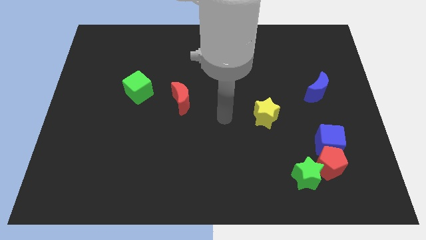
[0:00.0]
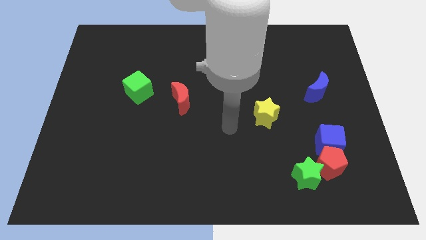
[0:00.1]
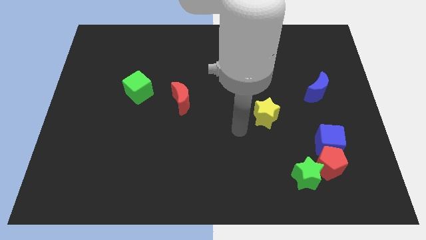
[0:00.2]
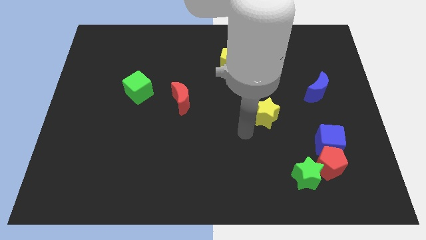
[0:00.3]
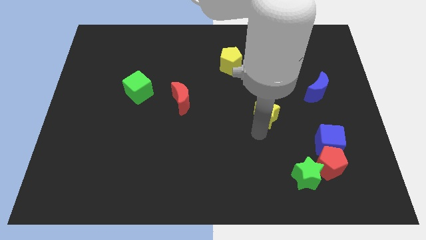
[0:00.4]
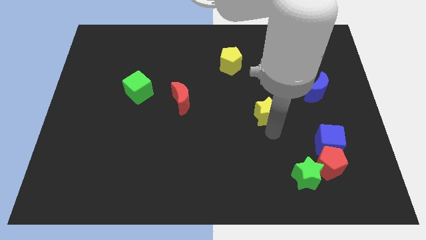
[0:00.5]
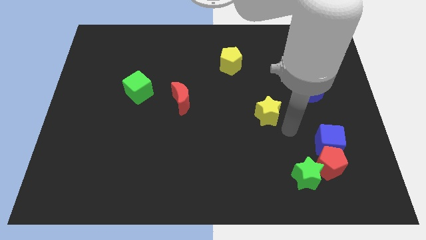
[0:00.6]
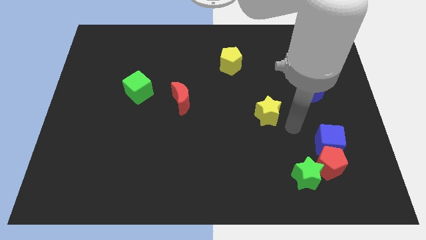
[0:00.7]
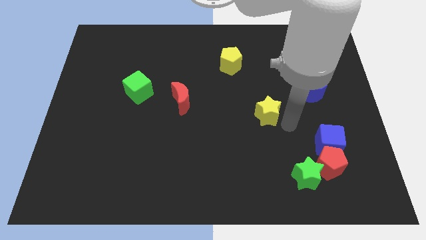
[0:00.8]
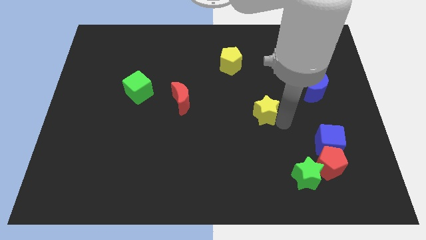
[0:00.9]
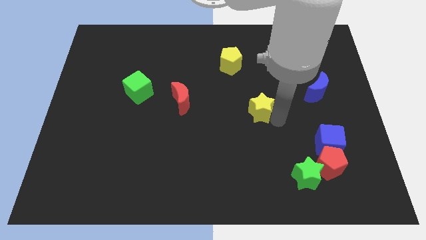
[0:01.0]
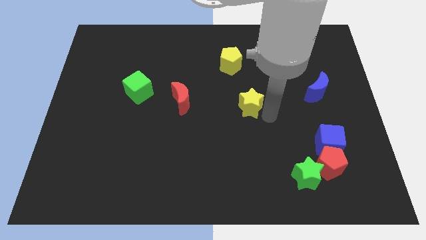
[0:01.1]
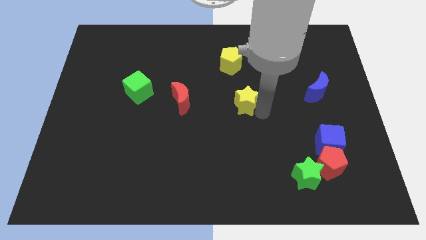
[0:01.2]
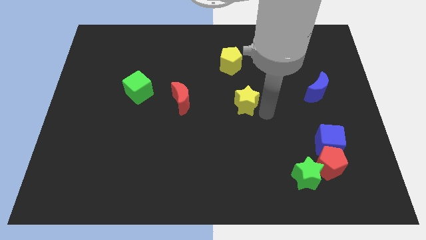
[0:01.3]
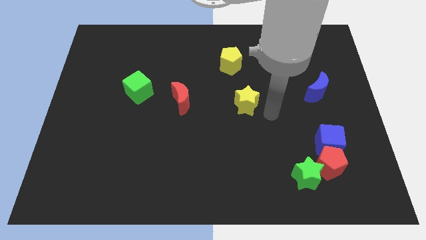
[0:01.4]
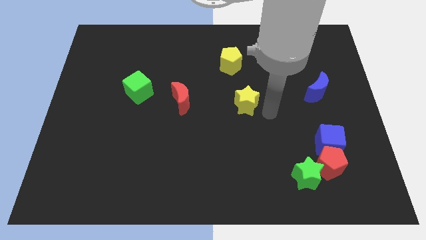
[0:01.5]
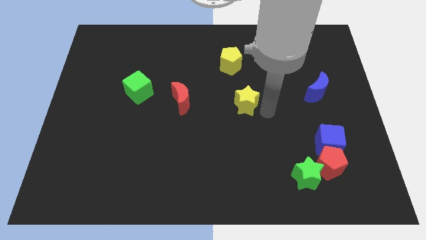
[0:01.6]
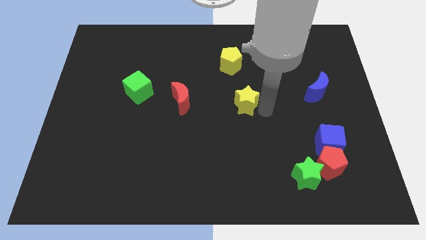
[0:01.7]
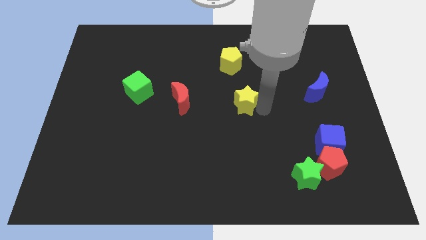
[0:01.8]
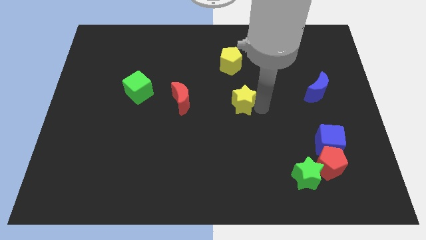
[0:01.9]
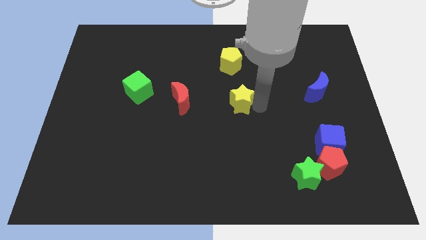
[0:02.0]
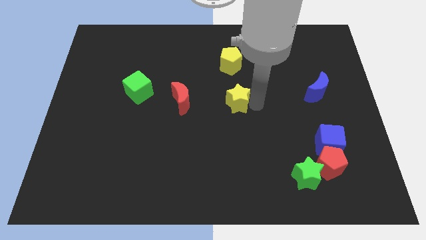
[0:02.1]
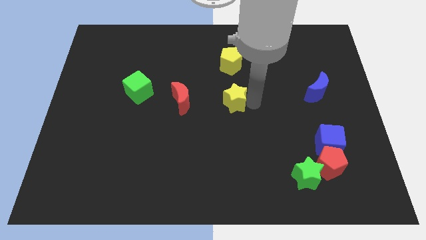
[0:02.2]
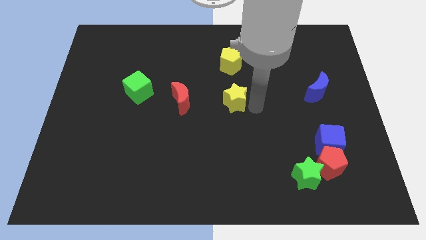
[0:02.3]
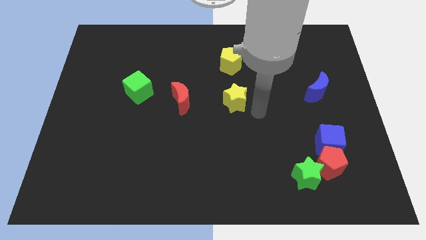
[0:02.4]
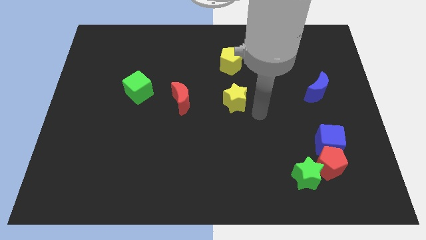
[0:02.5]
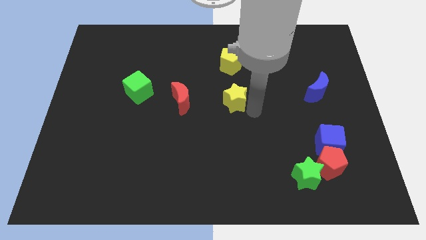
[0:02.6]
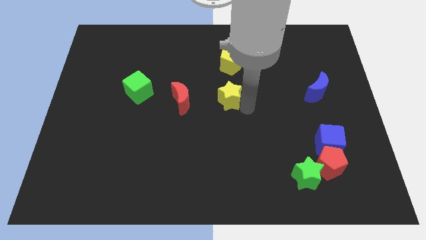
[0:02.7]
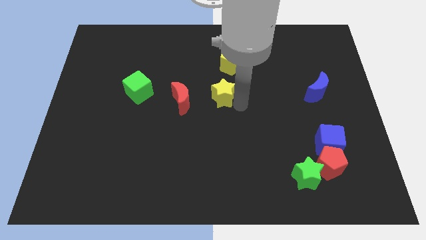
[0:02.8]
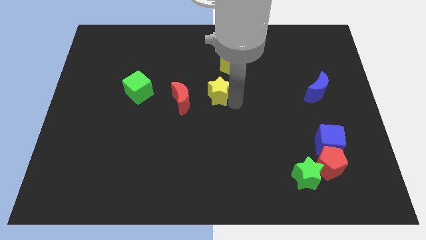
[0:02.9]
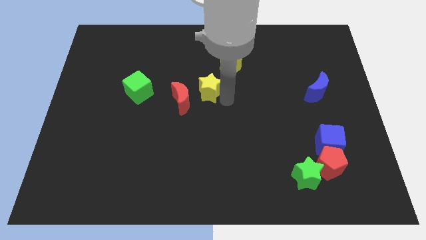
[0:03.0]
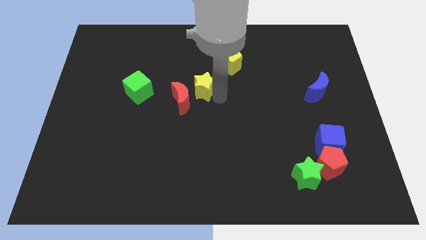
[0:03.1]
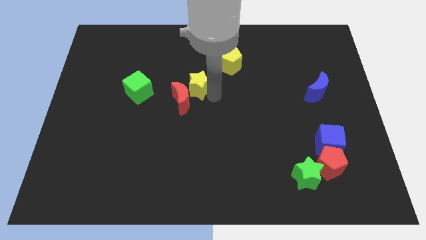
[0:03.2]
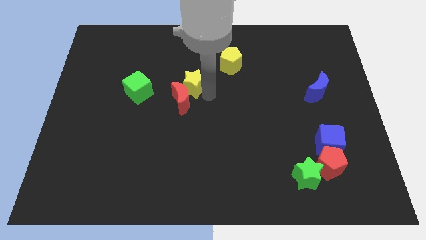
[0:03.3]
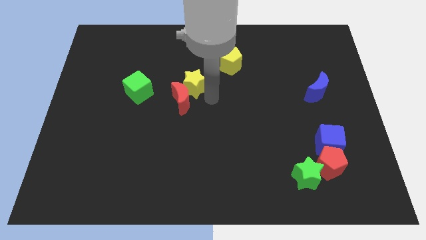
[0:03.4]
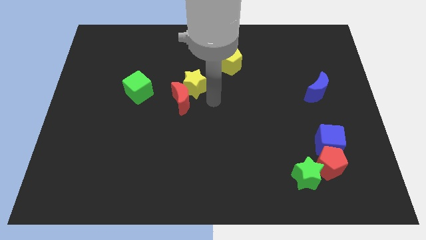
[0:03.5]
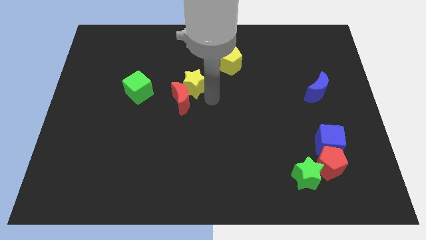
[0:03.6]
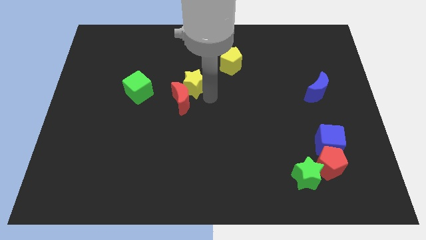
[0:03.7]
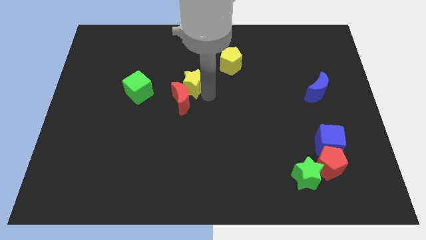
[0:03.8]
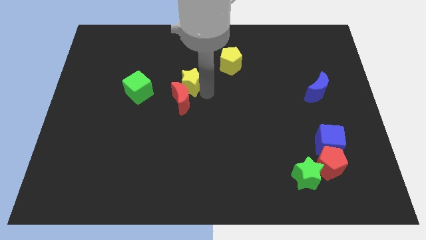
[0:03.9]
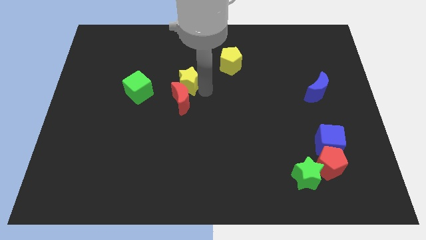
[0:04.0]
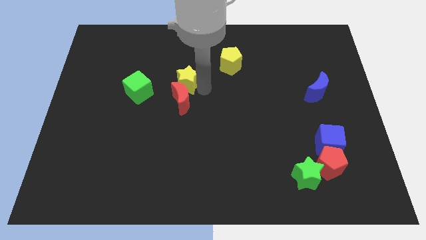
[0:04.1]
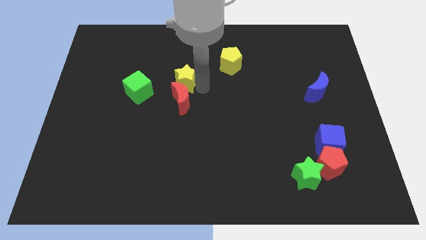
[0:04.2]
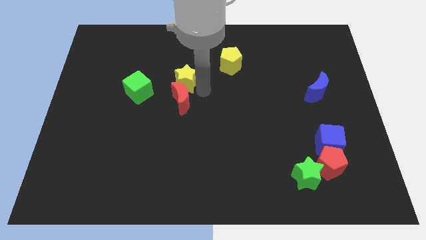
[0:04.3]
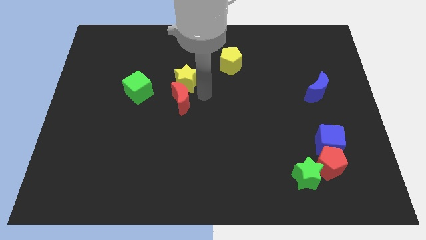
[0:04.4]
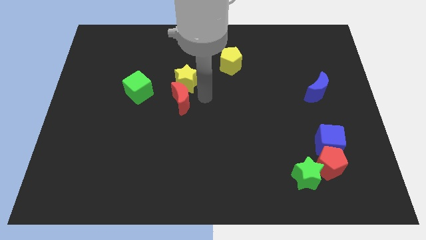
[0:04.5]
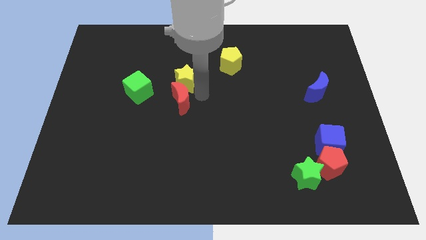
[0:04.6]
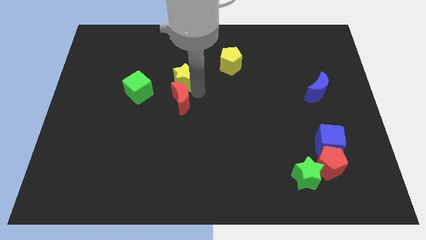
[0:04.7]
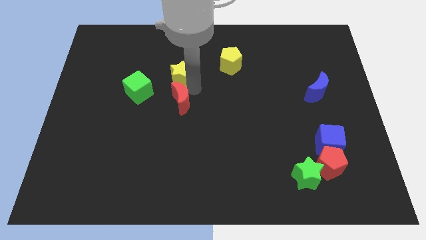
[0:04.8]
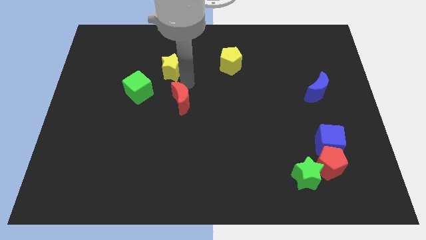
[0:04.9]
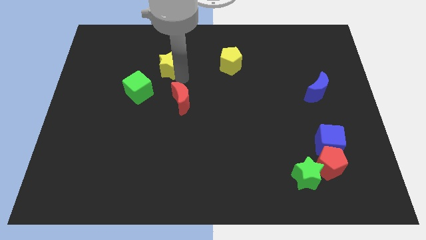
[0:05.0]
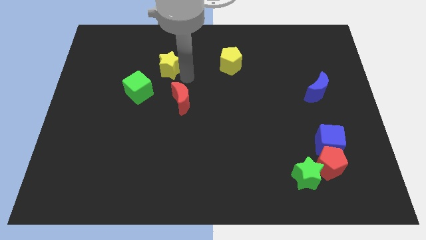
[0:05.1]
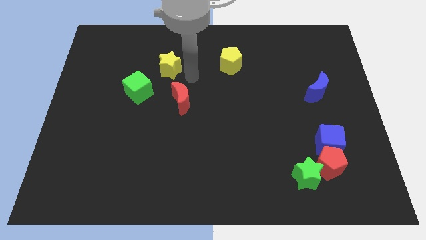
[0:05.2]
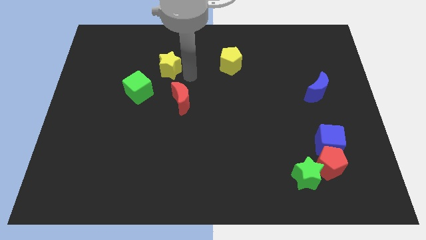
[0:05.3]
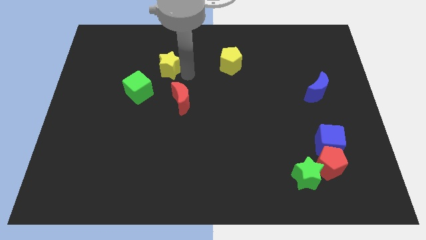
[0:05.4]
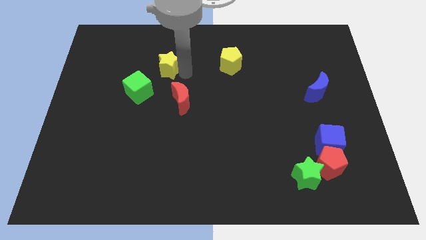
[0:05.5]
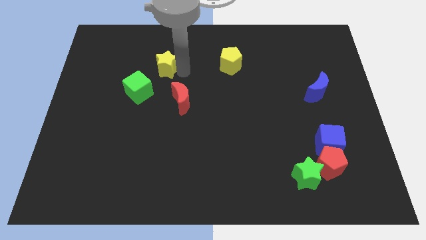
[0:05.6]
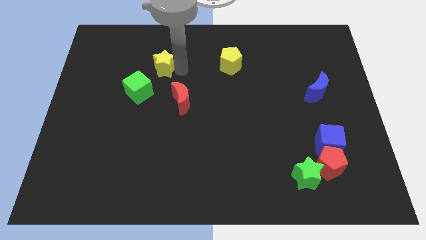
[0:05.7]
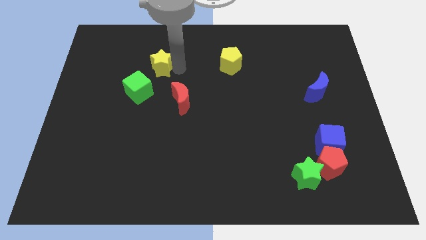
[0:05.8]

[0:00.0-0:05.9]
move the yellow star to the top side of the green cube

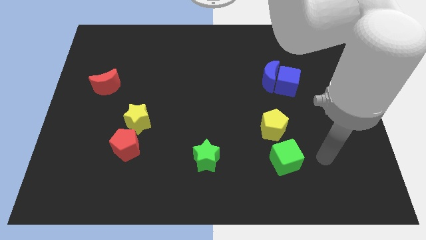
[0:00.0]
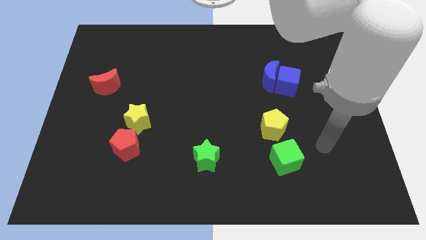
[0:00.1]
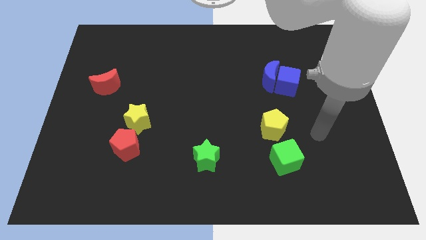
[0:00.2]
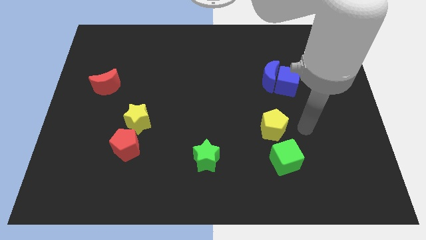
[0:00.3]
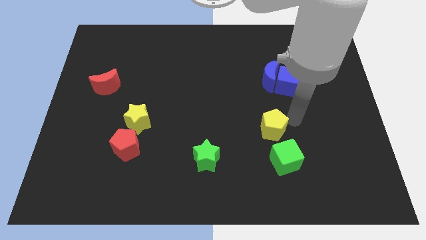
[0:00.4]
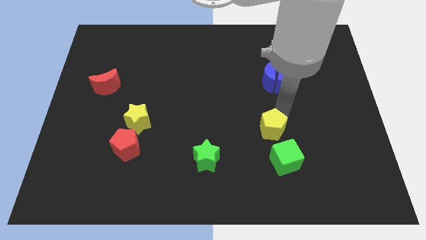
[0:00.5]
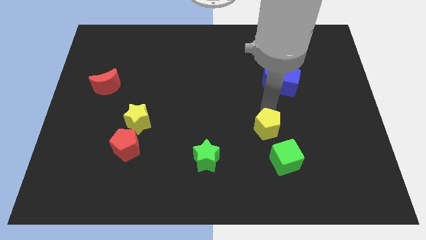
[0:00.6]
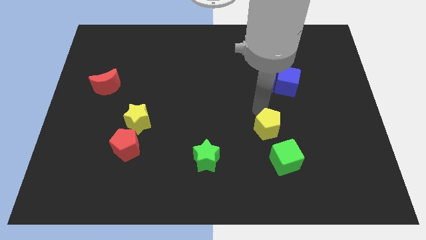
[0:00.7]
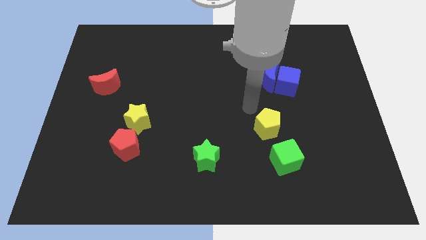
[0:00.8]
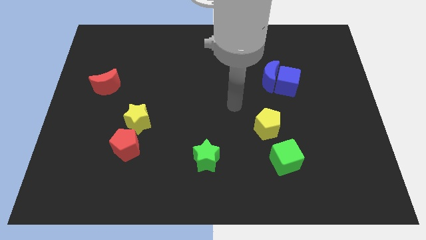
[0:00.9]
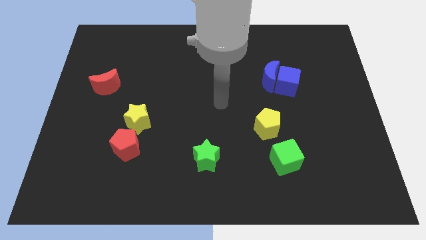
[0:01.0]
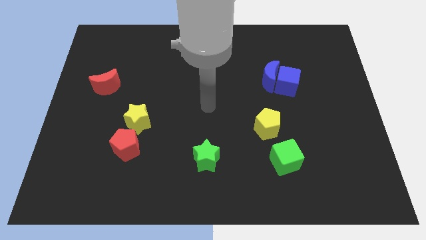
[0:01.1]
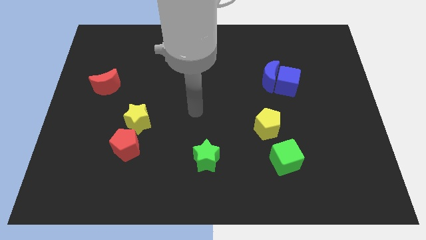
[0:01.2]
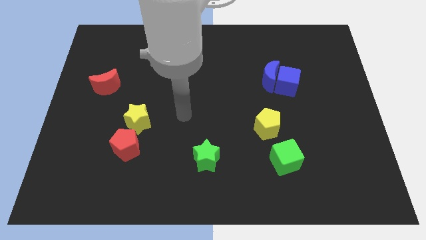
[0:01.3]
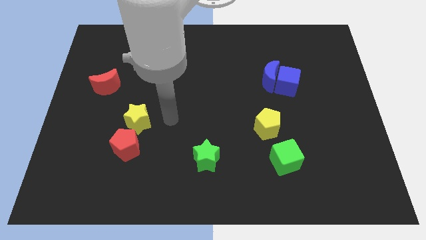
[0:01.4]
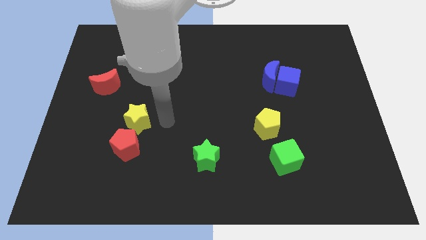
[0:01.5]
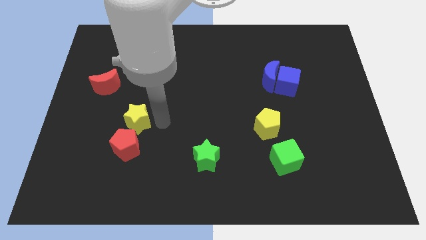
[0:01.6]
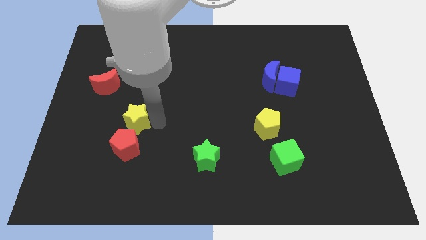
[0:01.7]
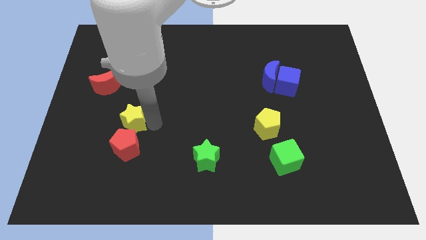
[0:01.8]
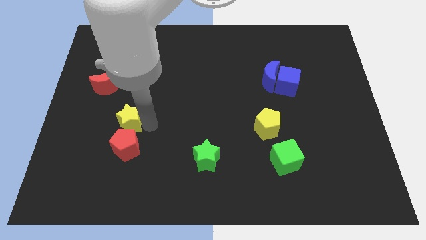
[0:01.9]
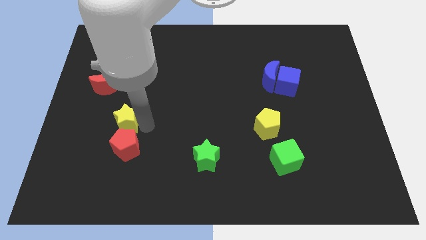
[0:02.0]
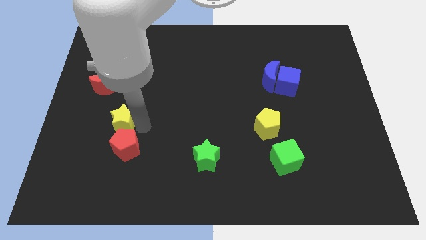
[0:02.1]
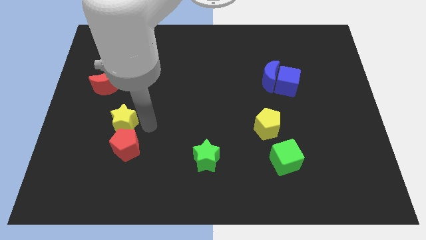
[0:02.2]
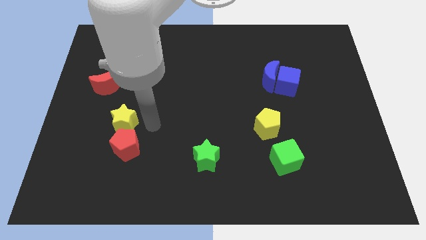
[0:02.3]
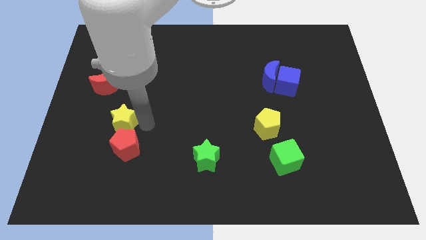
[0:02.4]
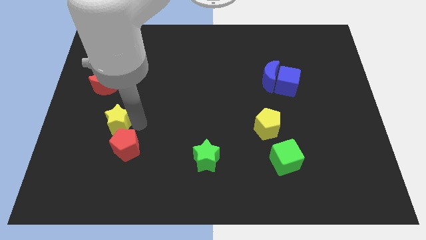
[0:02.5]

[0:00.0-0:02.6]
push the yellow star to the bottom side of the red moon

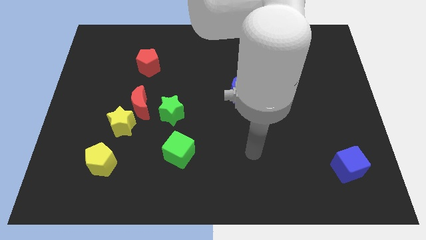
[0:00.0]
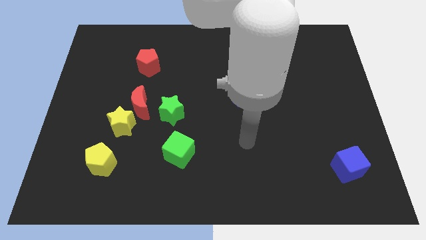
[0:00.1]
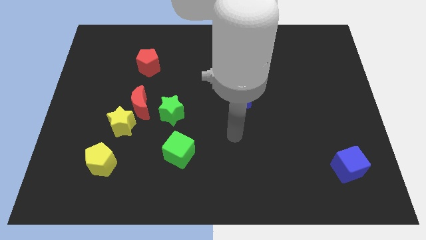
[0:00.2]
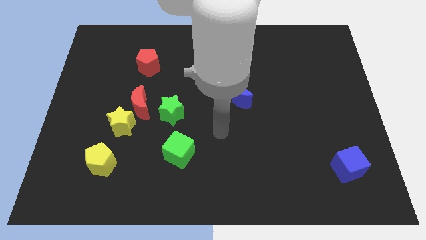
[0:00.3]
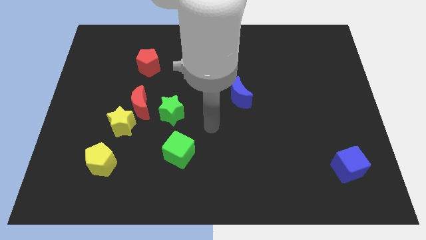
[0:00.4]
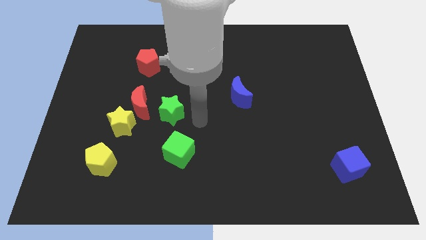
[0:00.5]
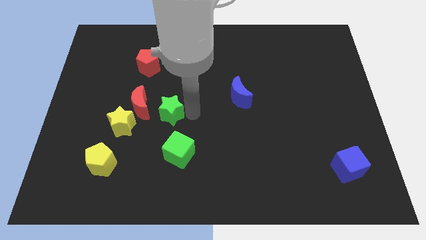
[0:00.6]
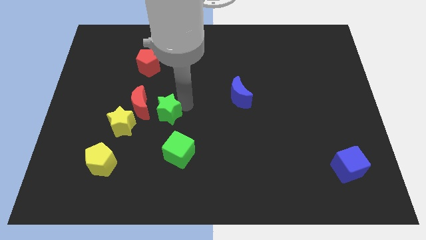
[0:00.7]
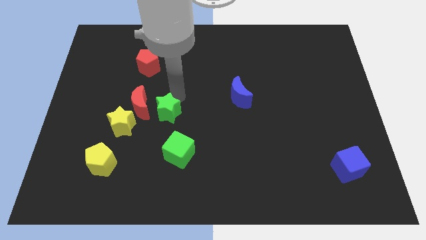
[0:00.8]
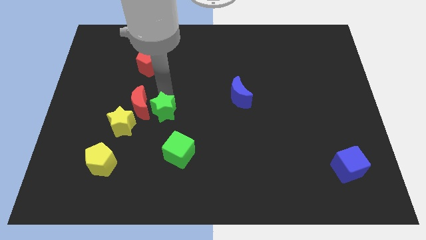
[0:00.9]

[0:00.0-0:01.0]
push the red moon to the bottom left of the green star
